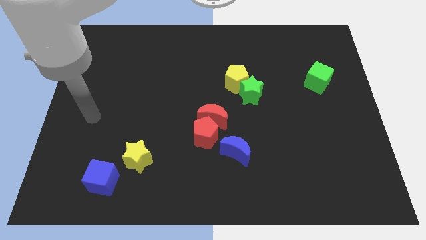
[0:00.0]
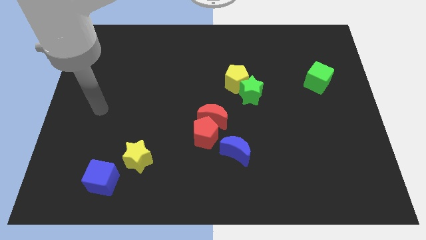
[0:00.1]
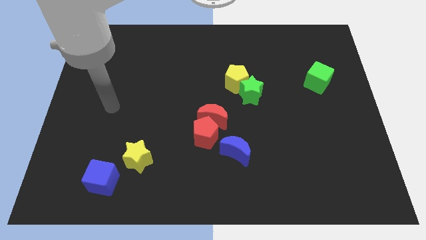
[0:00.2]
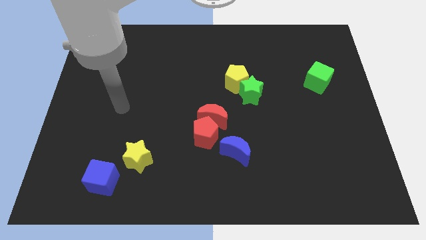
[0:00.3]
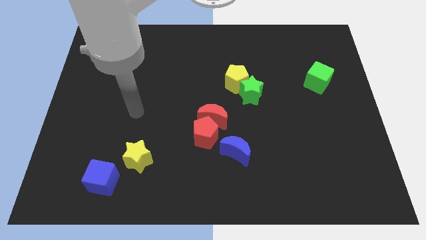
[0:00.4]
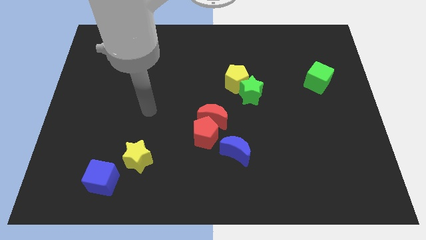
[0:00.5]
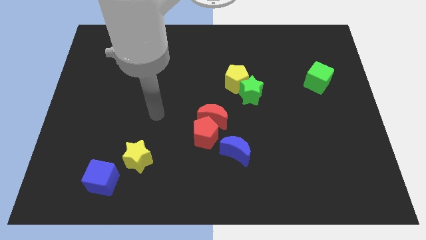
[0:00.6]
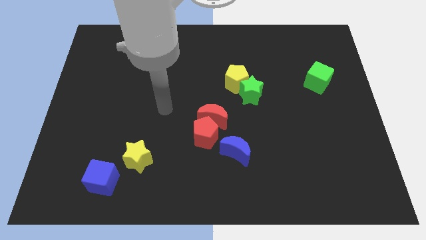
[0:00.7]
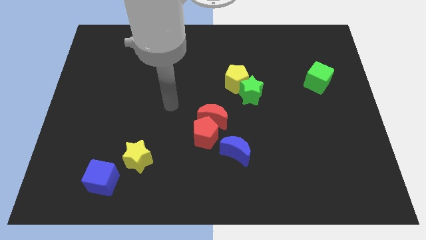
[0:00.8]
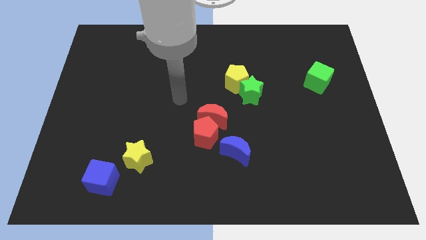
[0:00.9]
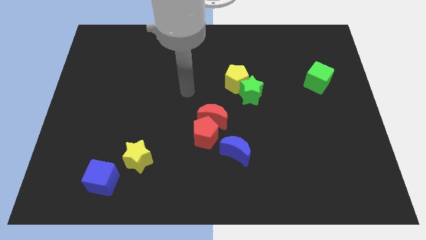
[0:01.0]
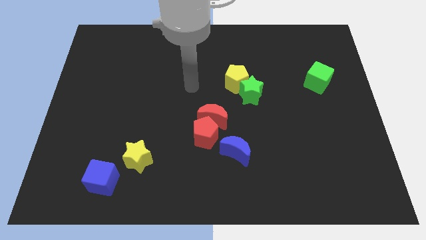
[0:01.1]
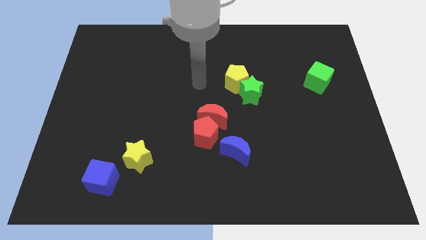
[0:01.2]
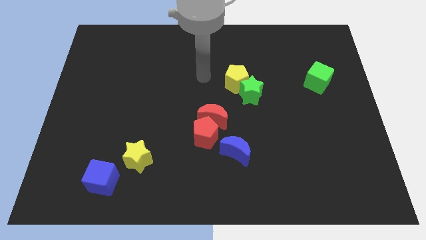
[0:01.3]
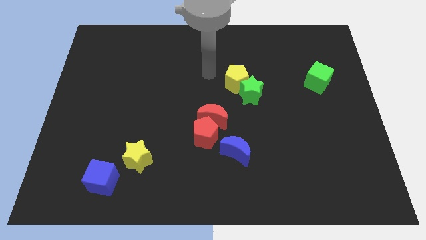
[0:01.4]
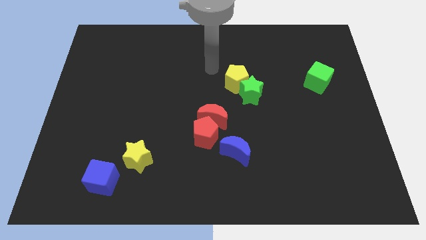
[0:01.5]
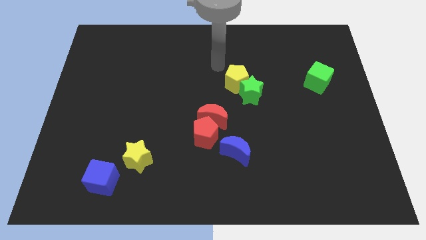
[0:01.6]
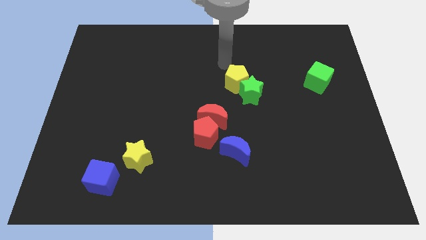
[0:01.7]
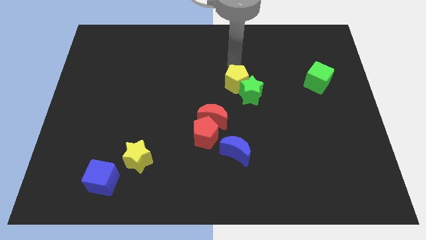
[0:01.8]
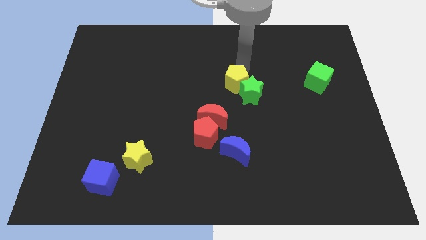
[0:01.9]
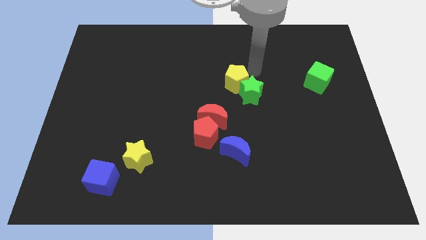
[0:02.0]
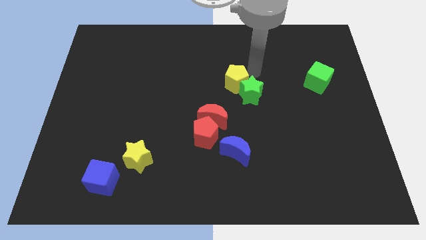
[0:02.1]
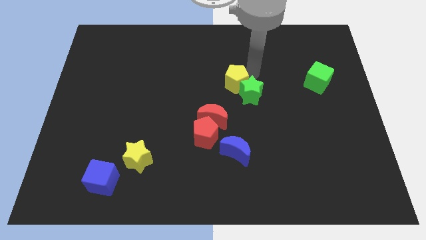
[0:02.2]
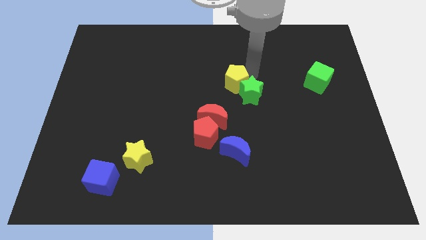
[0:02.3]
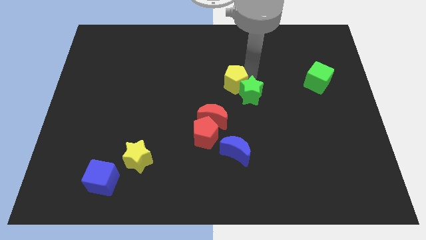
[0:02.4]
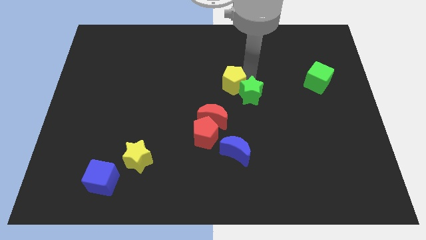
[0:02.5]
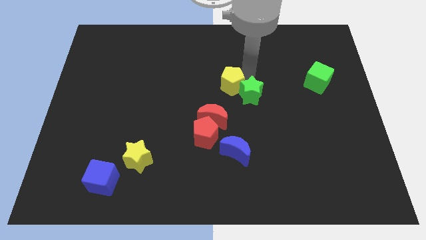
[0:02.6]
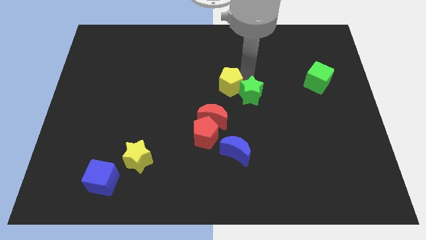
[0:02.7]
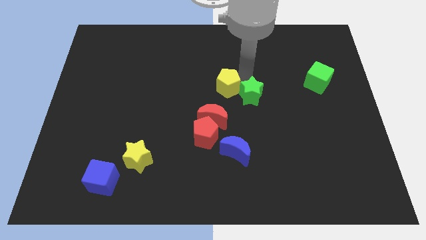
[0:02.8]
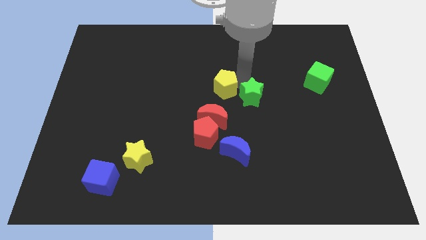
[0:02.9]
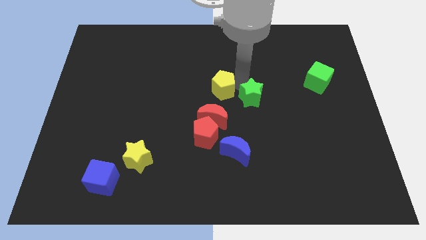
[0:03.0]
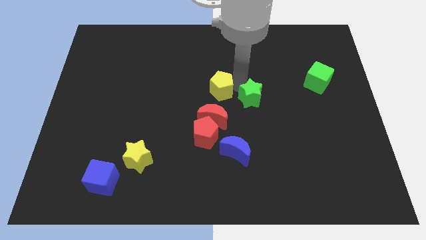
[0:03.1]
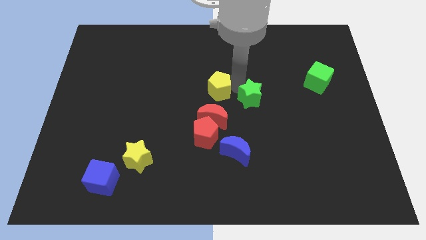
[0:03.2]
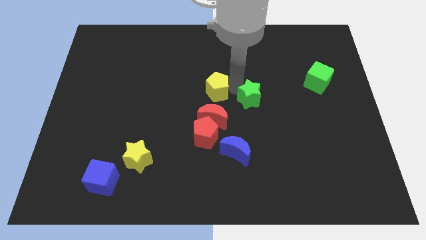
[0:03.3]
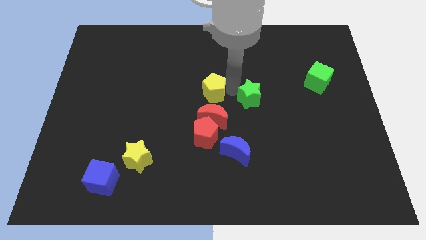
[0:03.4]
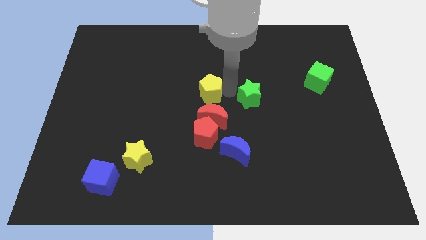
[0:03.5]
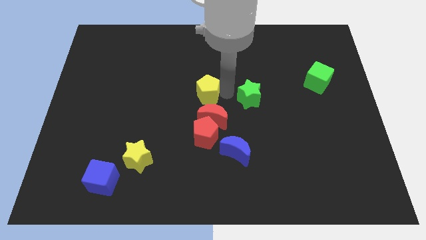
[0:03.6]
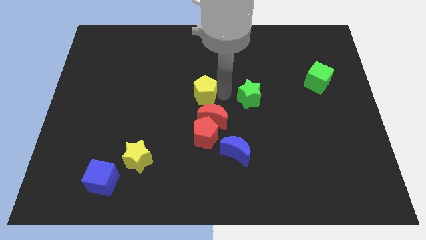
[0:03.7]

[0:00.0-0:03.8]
slide the yellow pentagon a little to the left

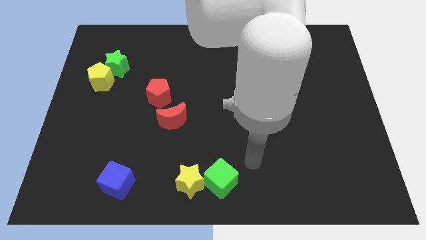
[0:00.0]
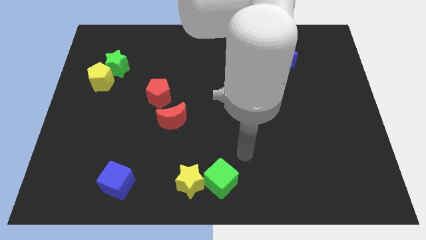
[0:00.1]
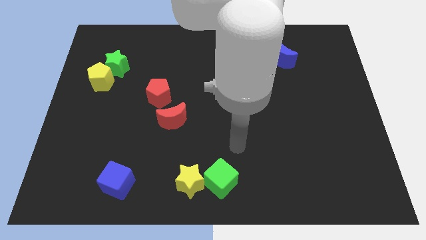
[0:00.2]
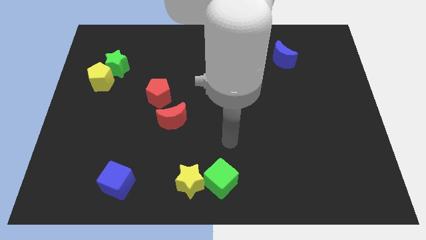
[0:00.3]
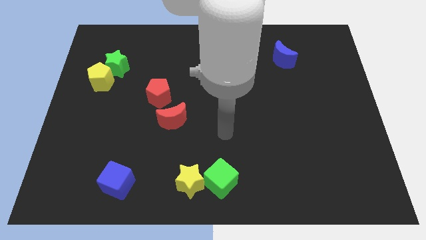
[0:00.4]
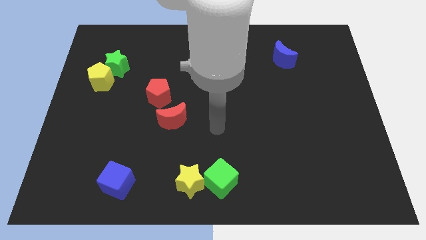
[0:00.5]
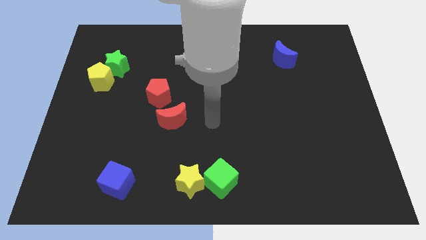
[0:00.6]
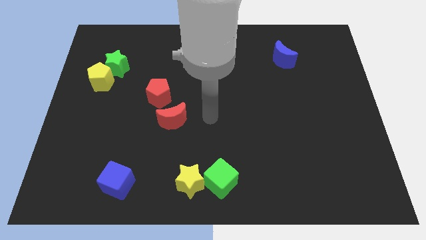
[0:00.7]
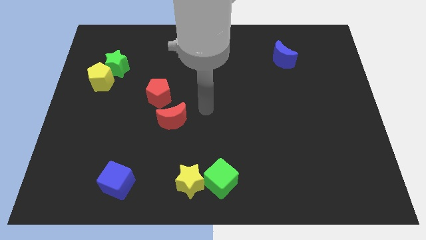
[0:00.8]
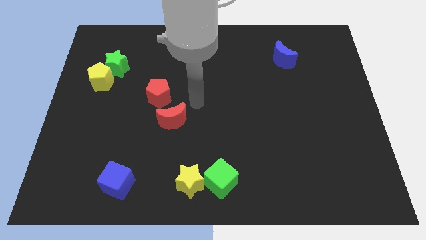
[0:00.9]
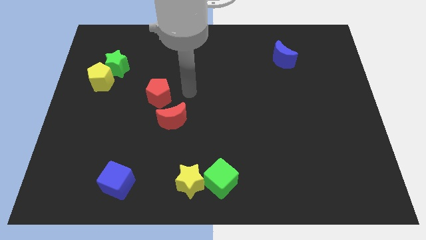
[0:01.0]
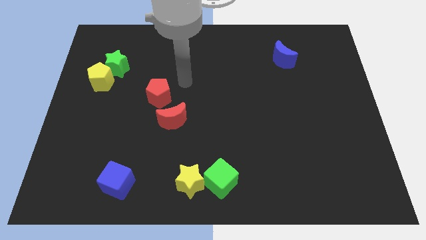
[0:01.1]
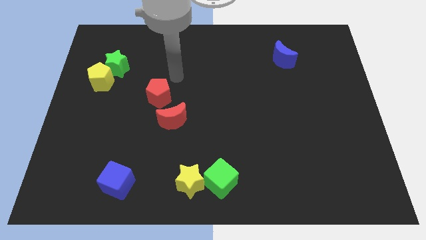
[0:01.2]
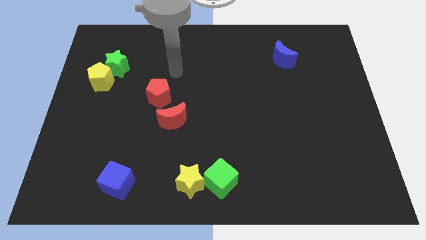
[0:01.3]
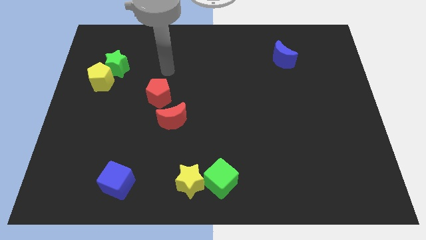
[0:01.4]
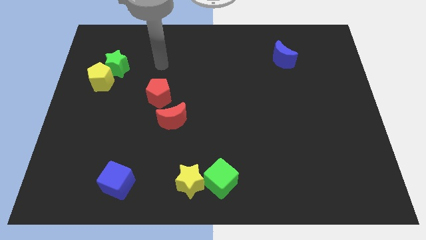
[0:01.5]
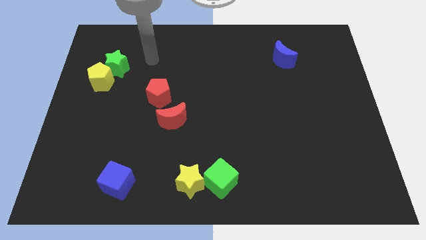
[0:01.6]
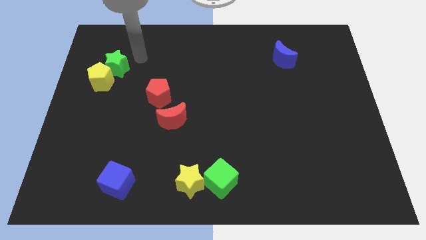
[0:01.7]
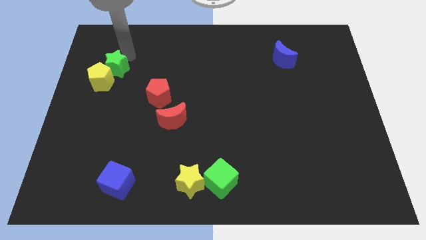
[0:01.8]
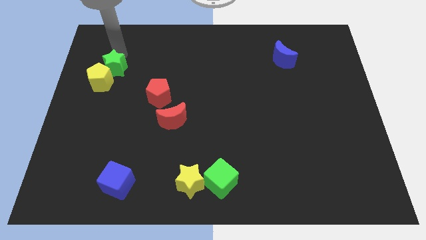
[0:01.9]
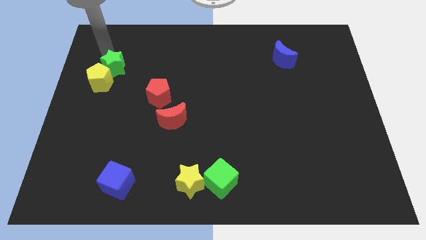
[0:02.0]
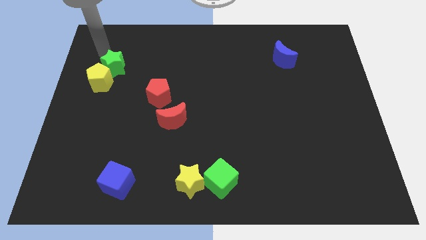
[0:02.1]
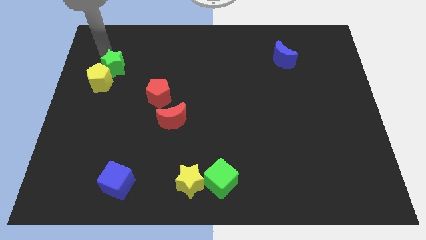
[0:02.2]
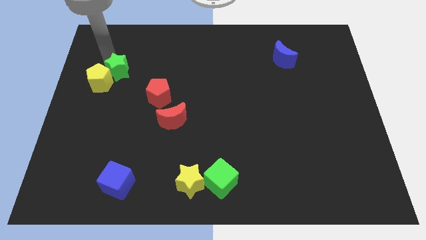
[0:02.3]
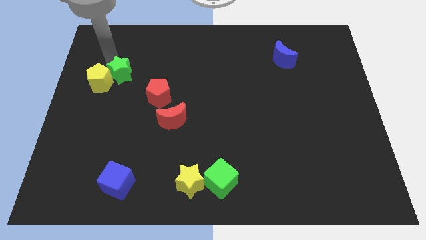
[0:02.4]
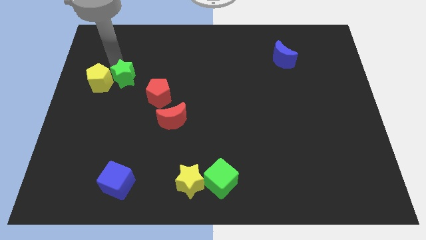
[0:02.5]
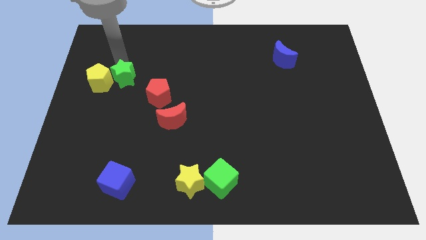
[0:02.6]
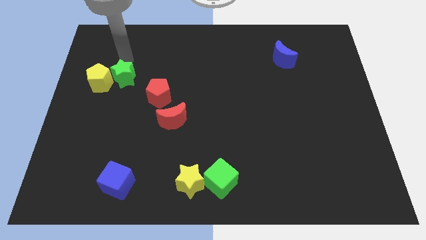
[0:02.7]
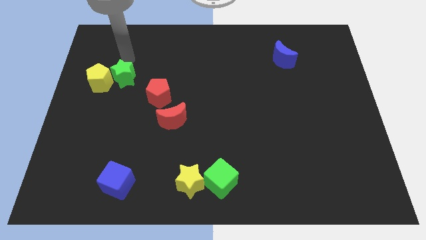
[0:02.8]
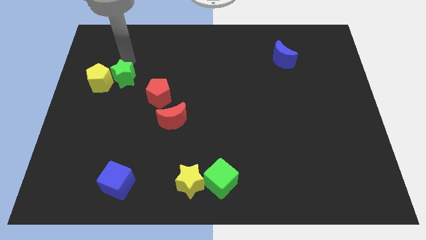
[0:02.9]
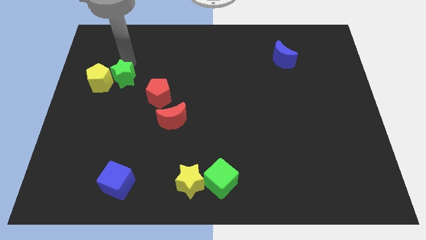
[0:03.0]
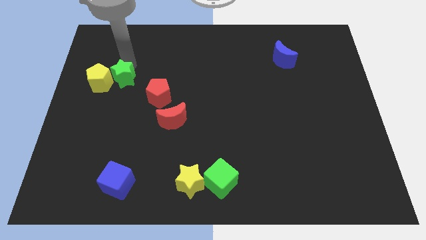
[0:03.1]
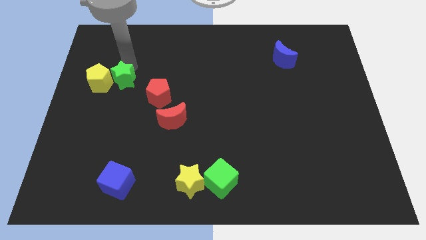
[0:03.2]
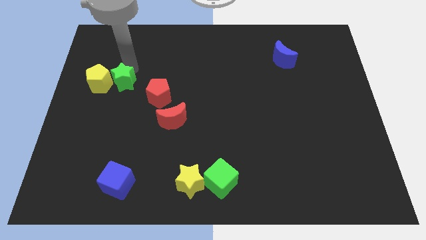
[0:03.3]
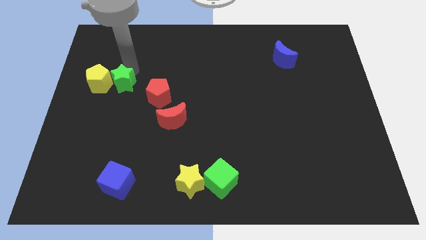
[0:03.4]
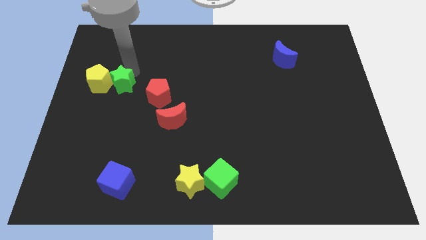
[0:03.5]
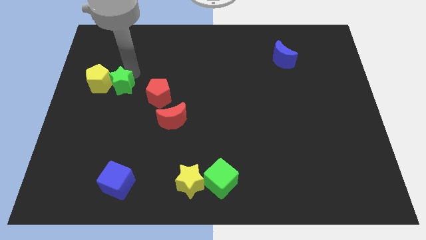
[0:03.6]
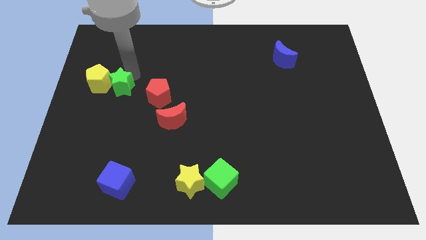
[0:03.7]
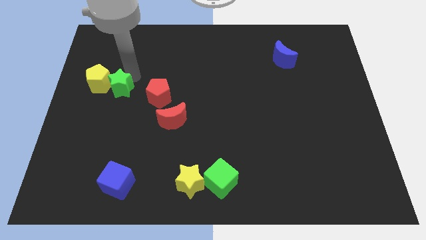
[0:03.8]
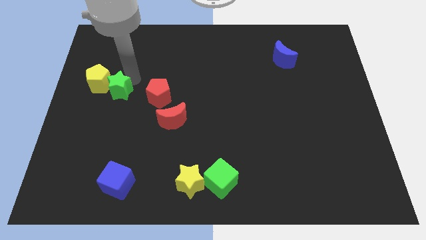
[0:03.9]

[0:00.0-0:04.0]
slide the green star down slightly

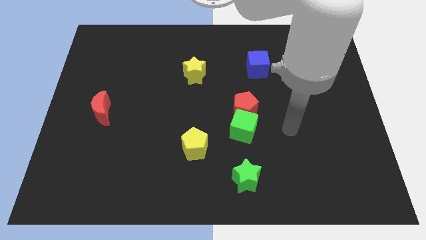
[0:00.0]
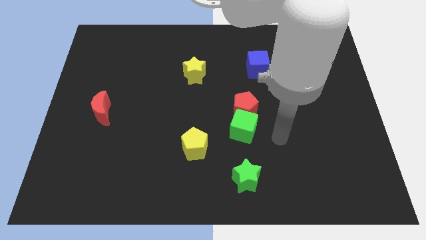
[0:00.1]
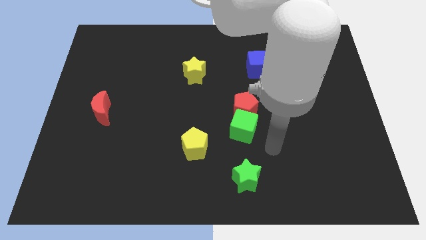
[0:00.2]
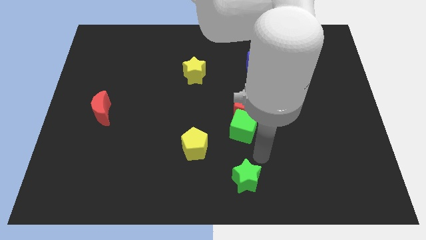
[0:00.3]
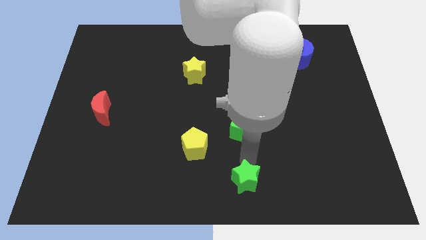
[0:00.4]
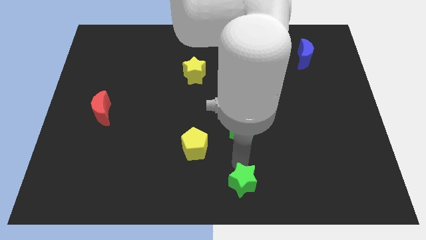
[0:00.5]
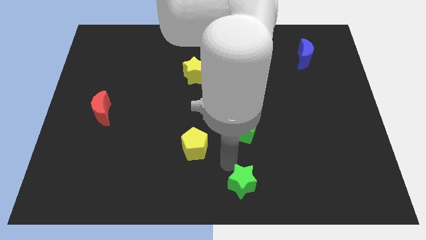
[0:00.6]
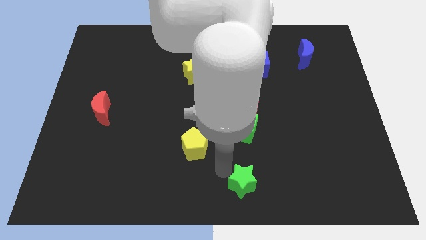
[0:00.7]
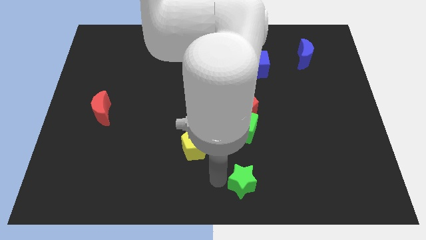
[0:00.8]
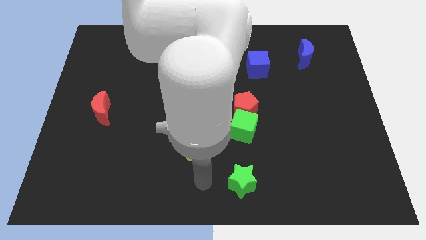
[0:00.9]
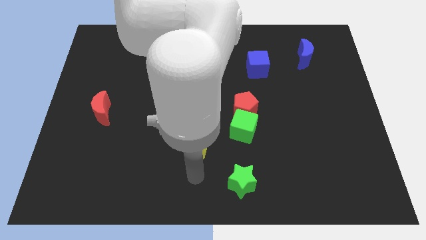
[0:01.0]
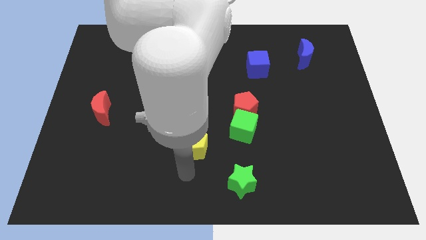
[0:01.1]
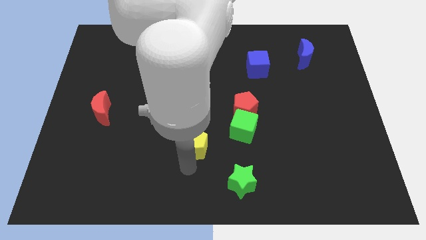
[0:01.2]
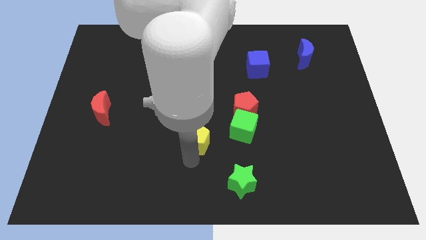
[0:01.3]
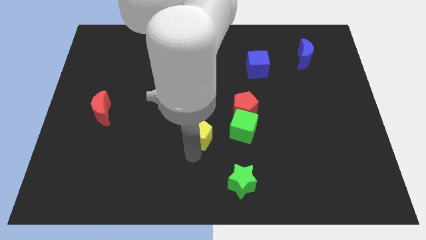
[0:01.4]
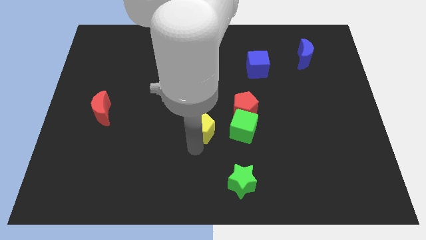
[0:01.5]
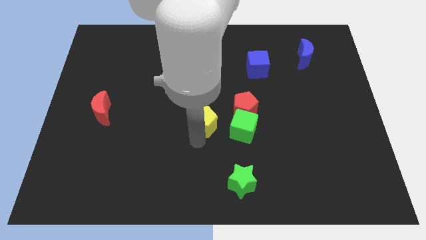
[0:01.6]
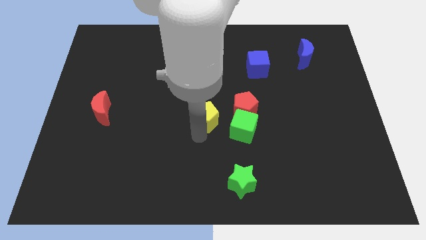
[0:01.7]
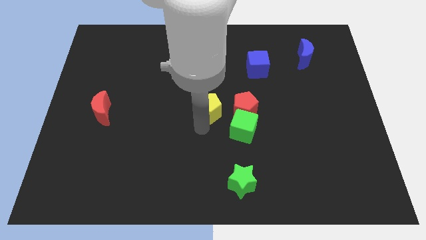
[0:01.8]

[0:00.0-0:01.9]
slide the yellow pentagon a bit up and to the right
